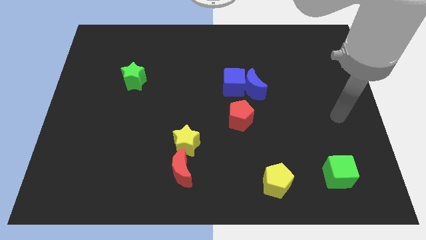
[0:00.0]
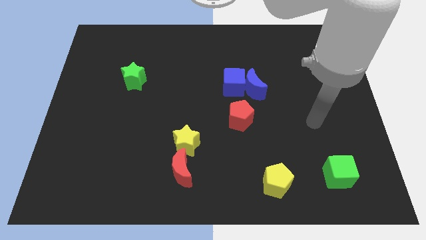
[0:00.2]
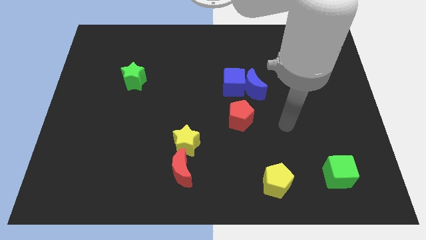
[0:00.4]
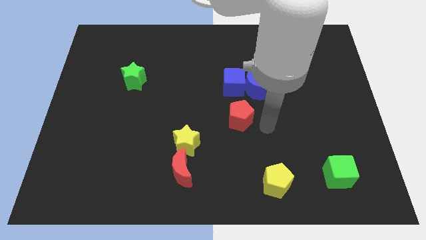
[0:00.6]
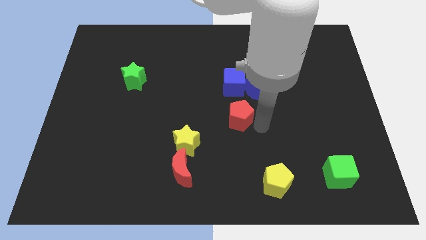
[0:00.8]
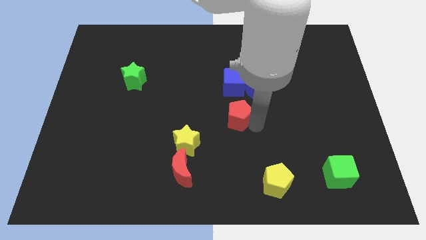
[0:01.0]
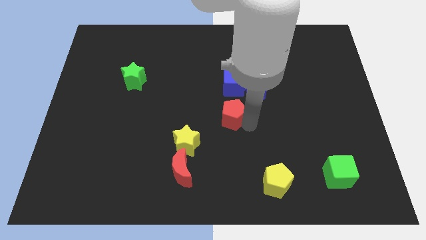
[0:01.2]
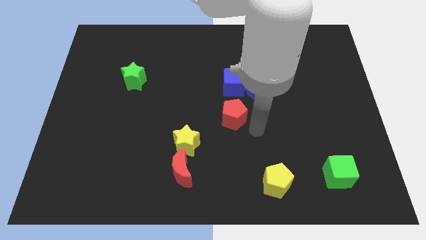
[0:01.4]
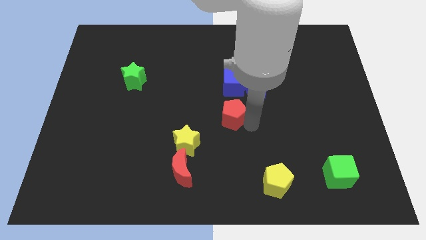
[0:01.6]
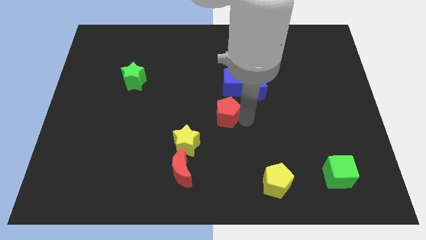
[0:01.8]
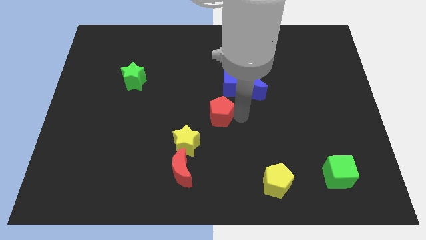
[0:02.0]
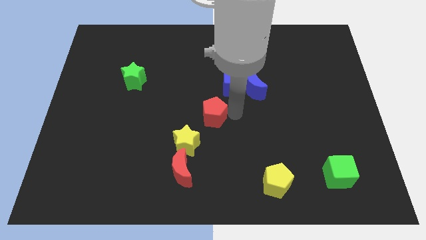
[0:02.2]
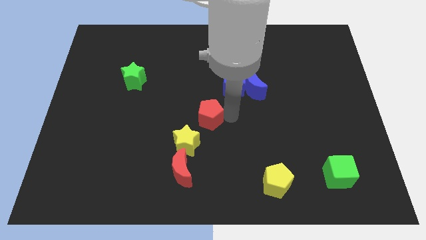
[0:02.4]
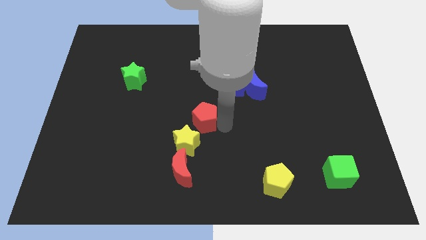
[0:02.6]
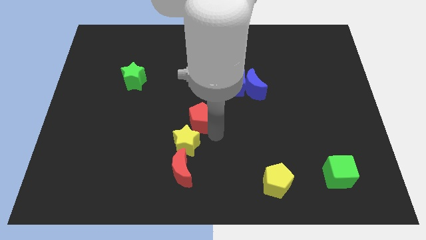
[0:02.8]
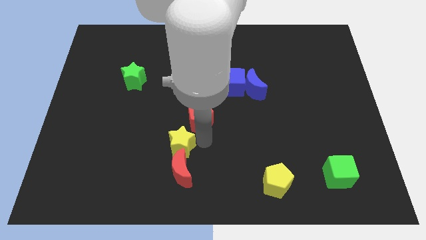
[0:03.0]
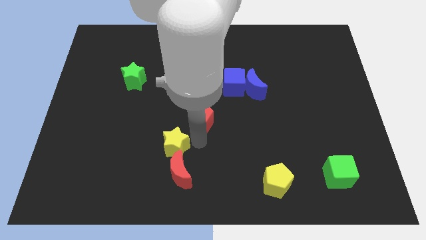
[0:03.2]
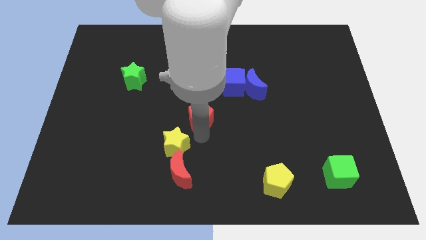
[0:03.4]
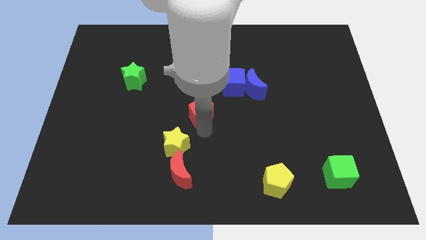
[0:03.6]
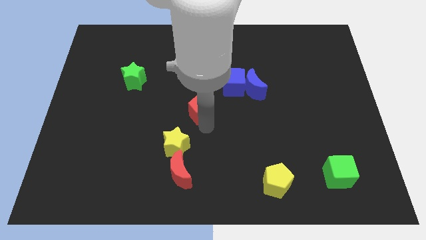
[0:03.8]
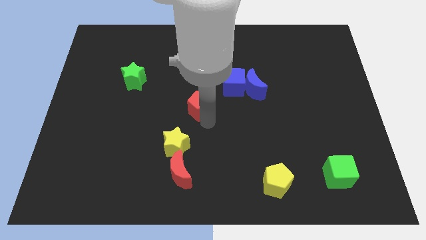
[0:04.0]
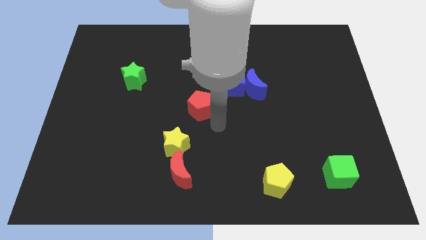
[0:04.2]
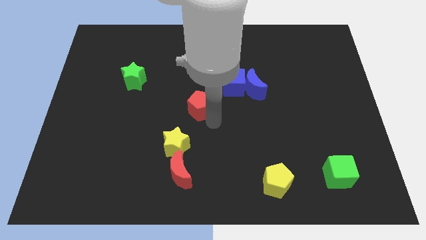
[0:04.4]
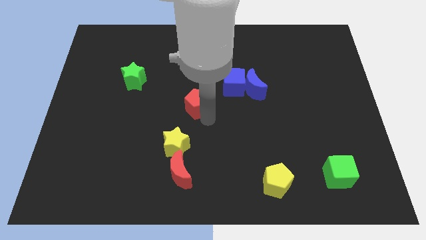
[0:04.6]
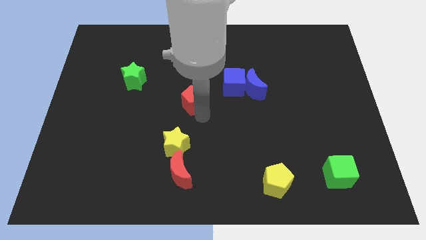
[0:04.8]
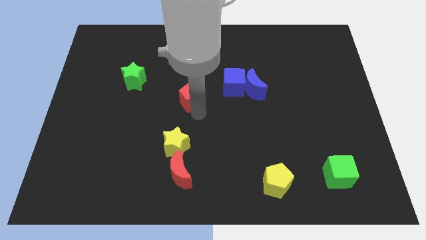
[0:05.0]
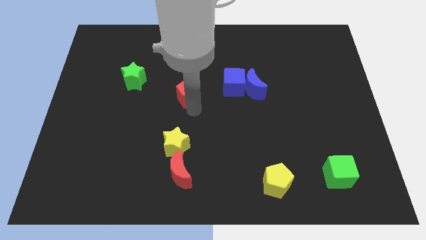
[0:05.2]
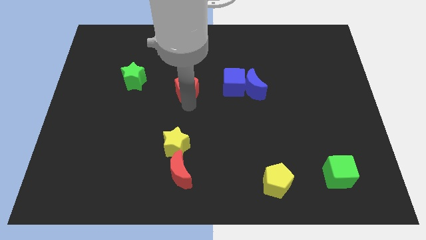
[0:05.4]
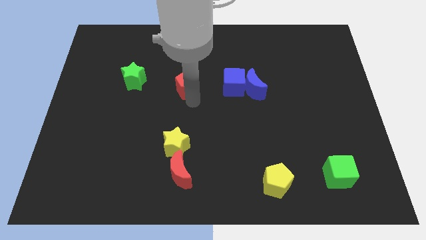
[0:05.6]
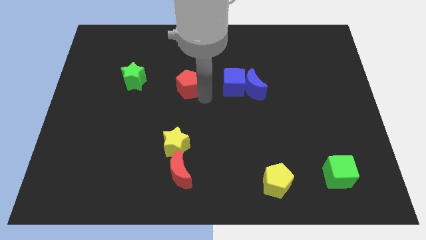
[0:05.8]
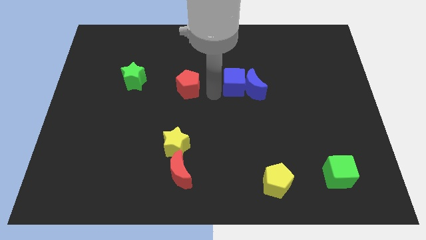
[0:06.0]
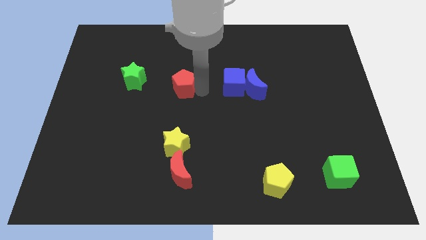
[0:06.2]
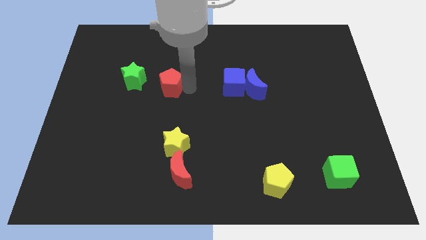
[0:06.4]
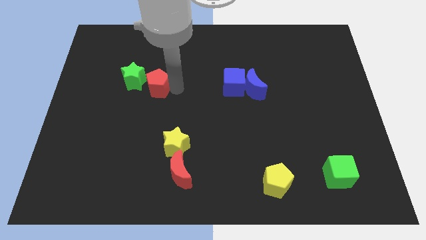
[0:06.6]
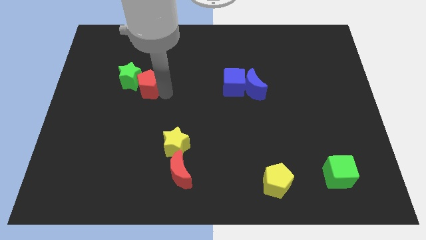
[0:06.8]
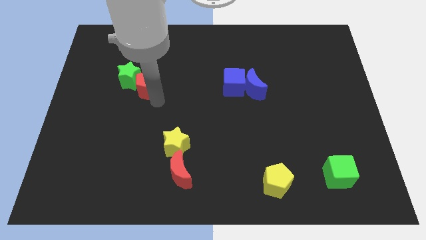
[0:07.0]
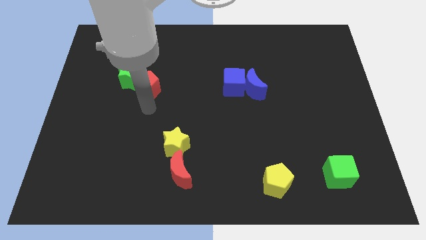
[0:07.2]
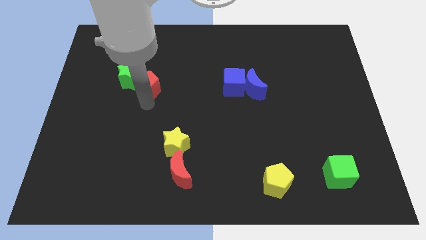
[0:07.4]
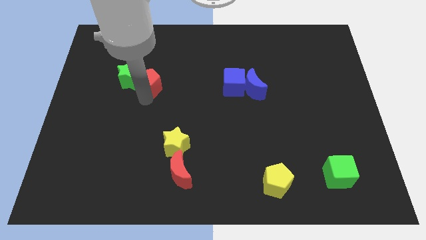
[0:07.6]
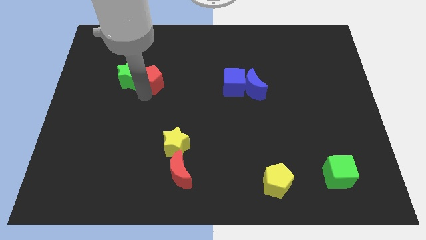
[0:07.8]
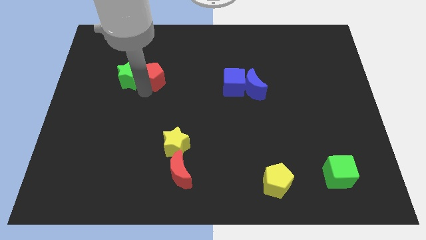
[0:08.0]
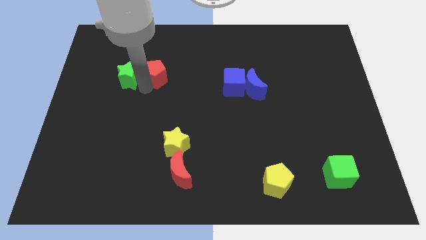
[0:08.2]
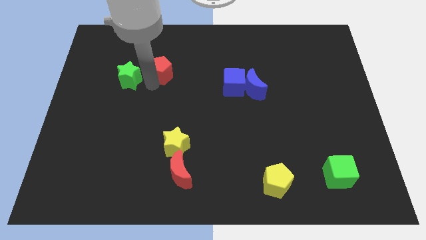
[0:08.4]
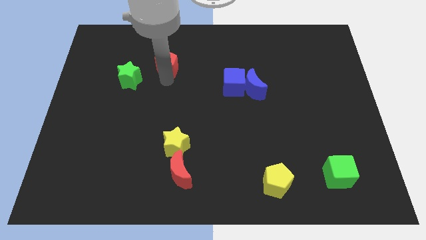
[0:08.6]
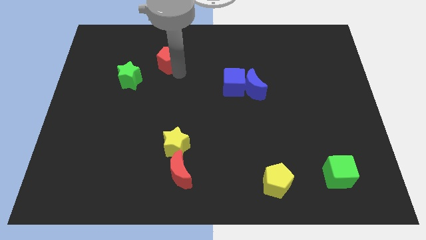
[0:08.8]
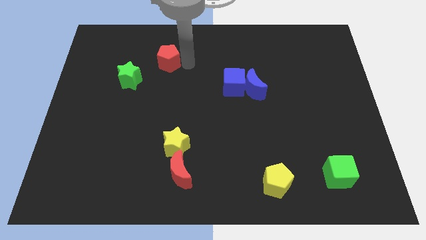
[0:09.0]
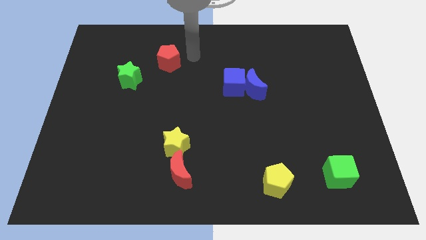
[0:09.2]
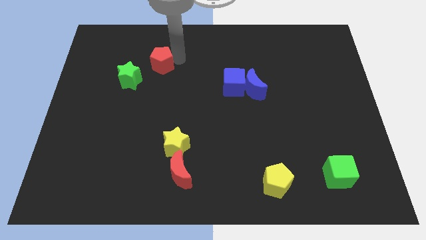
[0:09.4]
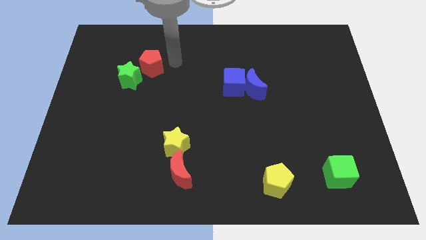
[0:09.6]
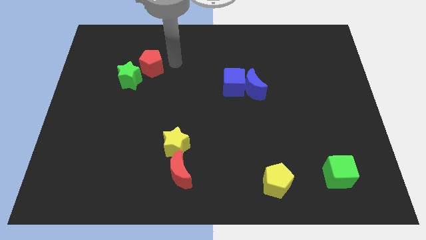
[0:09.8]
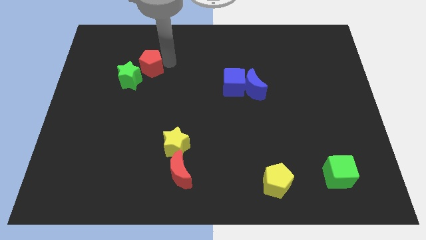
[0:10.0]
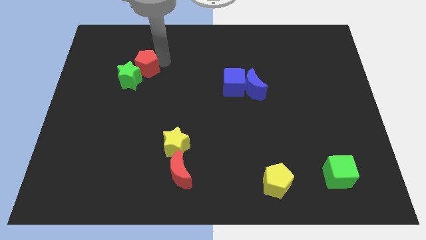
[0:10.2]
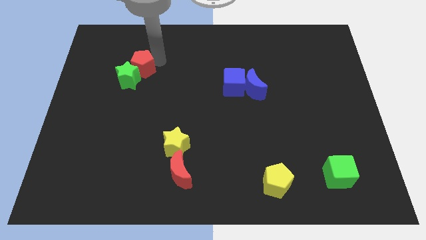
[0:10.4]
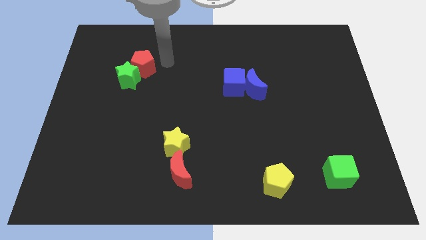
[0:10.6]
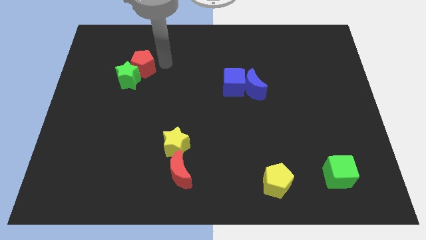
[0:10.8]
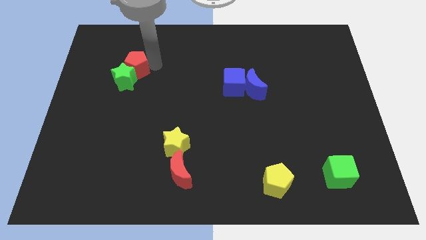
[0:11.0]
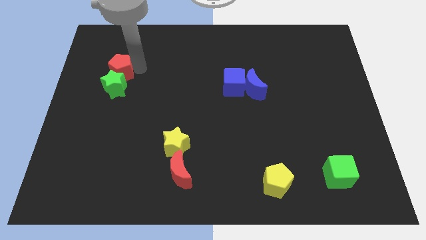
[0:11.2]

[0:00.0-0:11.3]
put the red pentagon to the top left side of the green star
